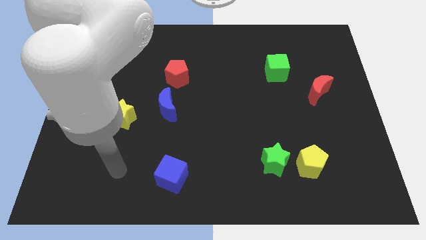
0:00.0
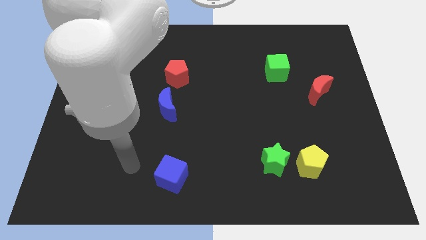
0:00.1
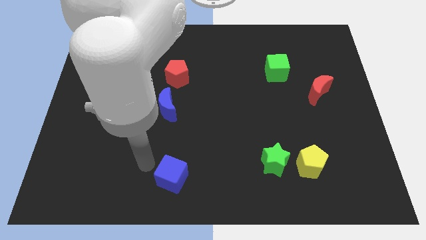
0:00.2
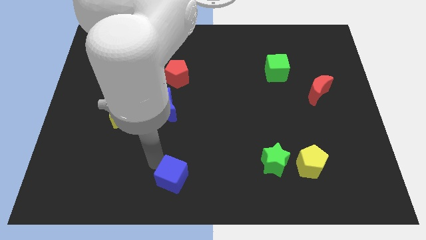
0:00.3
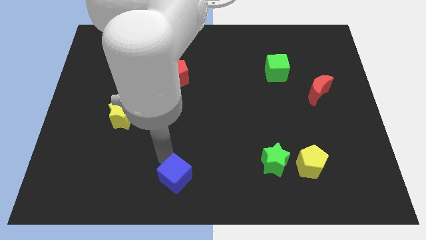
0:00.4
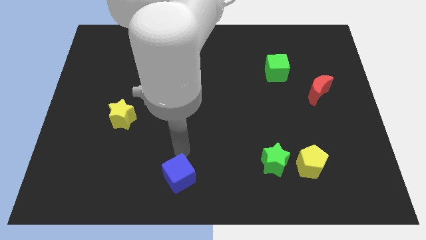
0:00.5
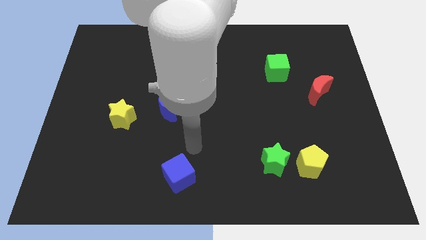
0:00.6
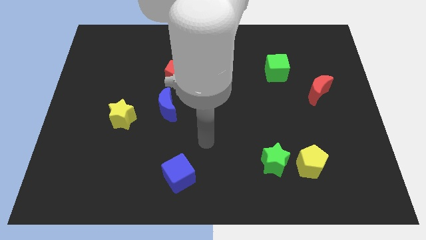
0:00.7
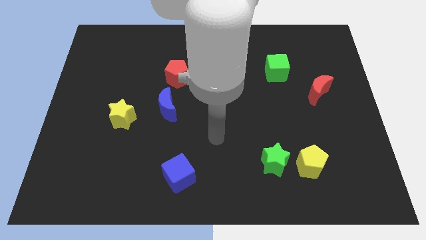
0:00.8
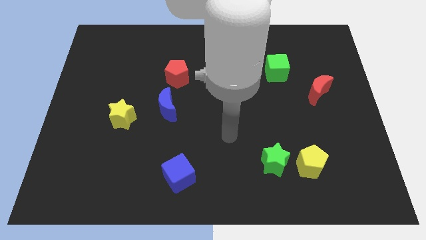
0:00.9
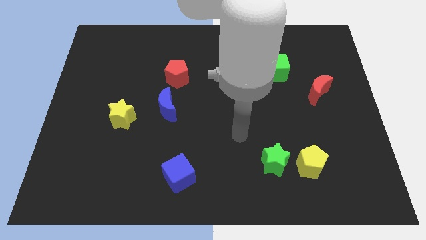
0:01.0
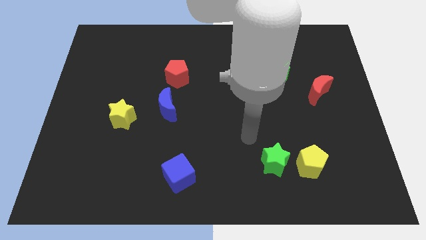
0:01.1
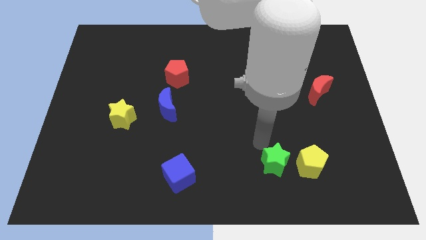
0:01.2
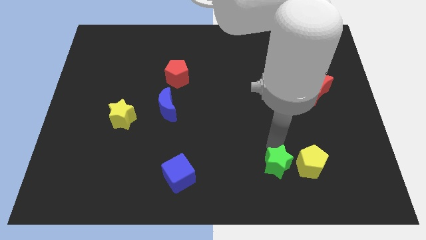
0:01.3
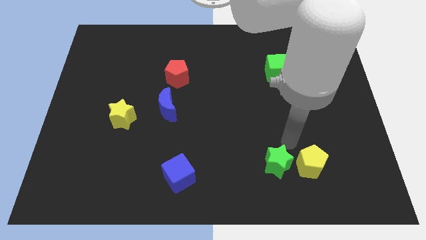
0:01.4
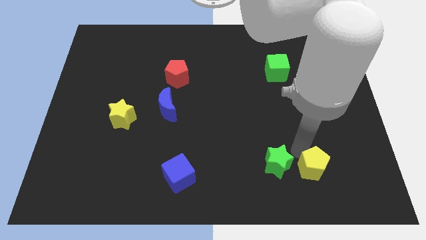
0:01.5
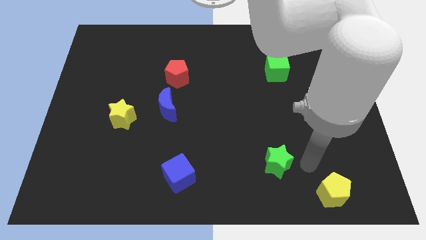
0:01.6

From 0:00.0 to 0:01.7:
move the green star away from the yellow pentagon

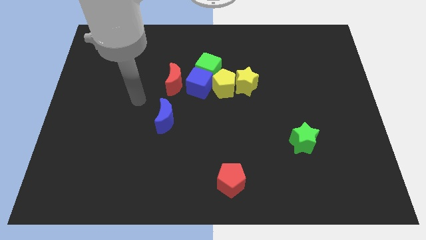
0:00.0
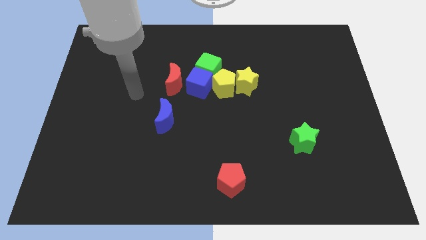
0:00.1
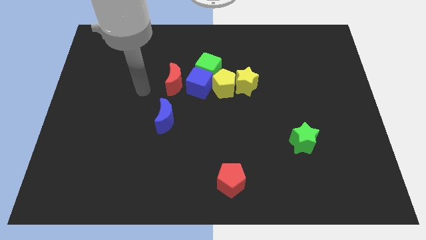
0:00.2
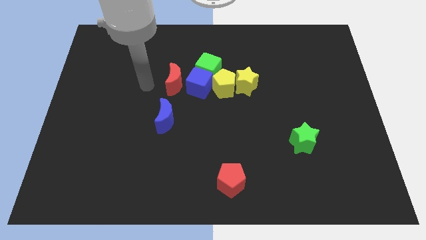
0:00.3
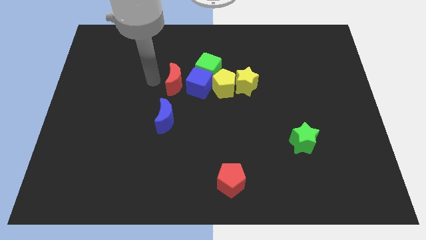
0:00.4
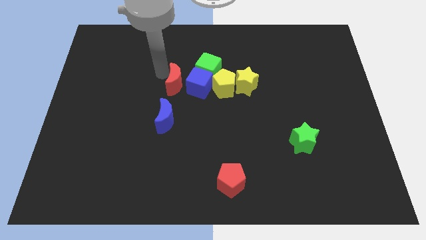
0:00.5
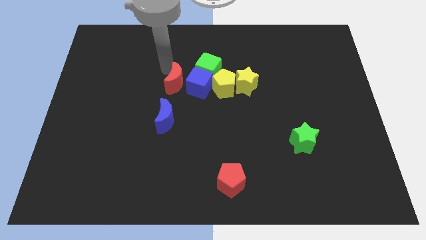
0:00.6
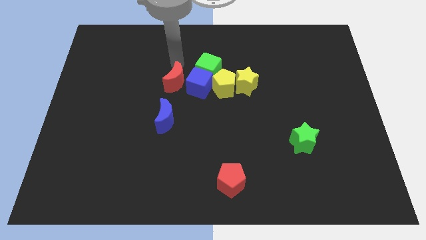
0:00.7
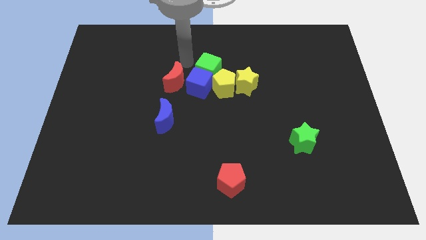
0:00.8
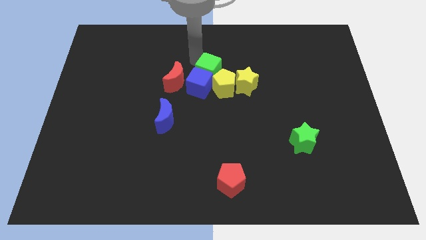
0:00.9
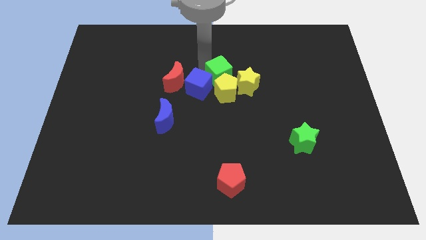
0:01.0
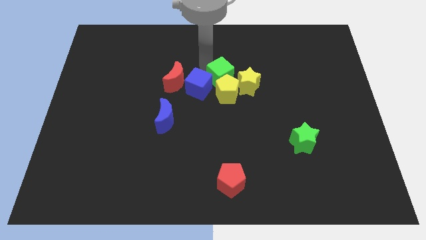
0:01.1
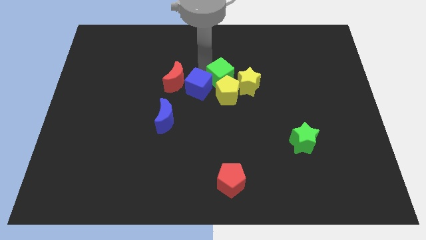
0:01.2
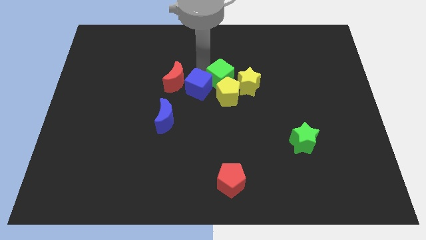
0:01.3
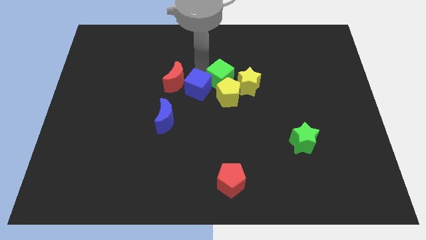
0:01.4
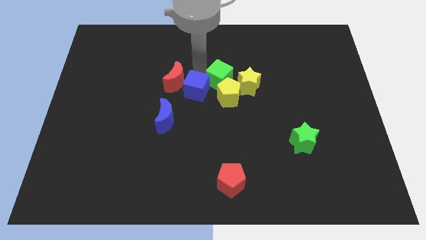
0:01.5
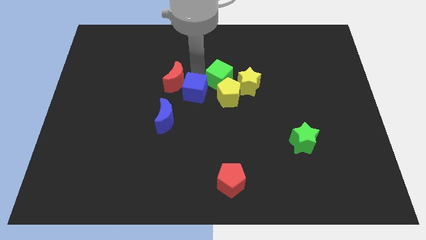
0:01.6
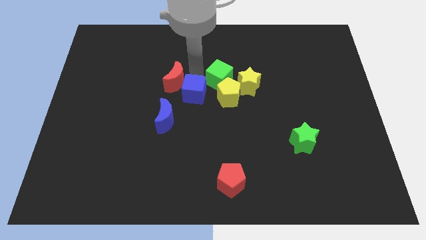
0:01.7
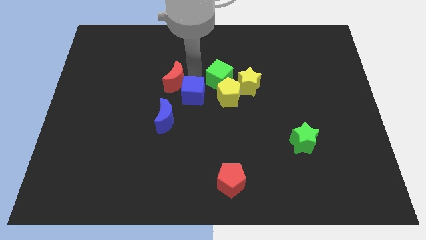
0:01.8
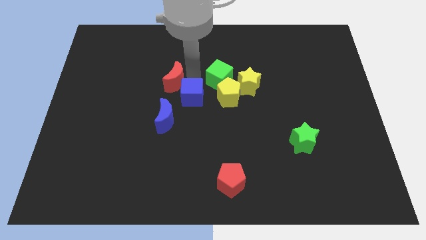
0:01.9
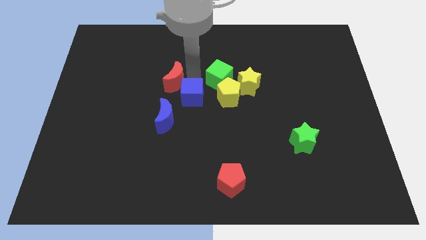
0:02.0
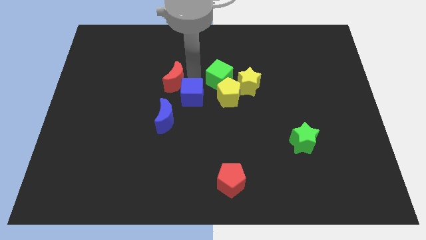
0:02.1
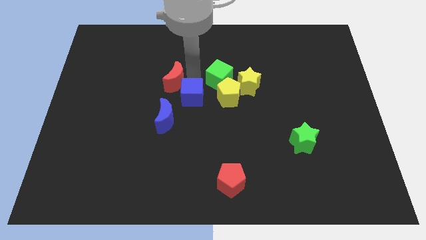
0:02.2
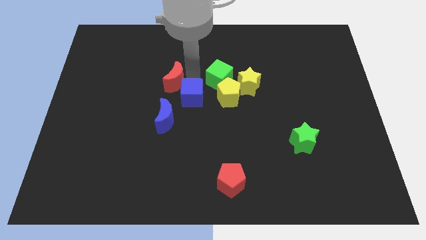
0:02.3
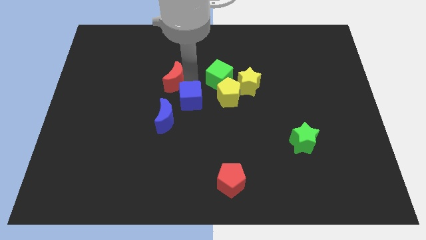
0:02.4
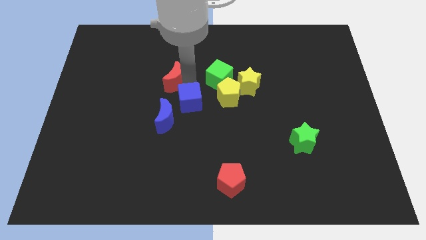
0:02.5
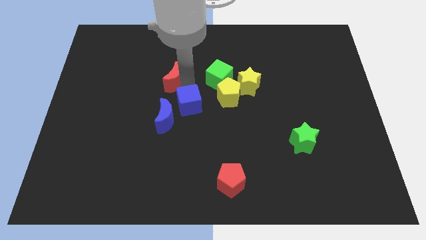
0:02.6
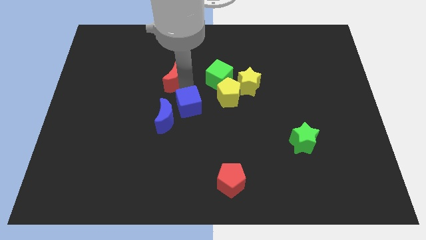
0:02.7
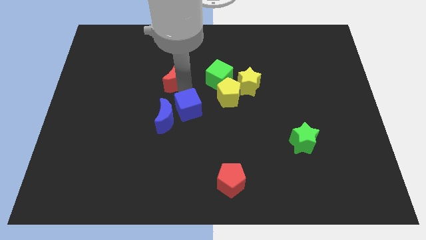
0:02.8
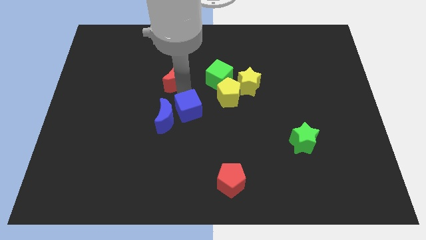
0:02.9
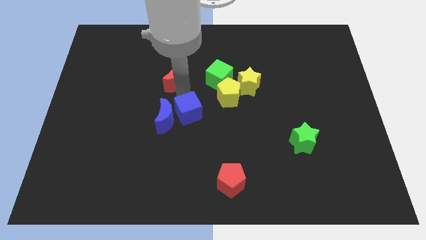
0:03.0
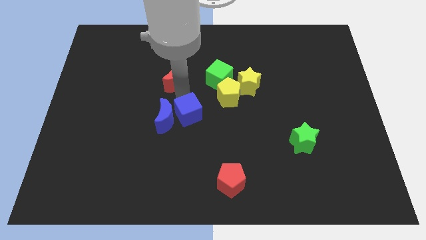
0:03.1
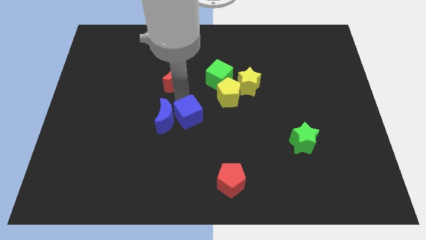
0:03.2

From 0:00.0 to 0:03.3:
move the blue cube away from the green cube, yellow pentagon, and red moon

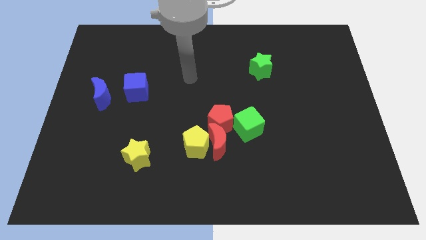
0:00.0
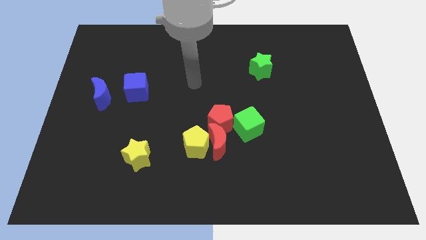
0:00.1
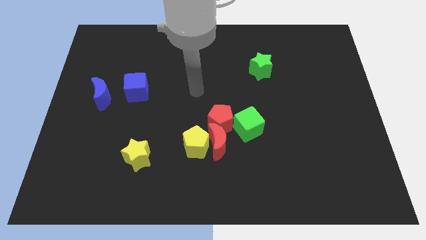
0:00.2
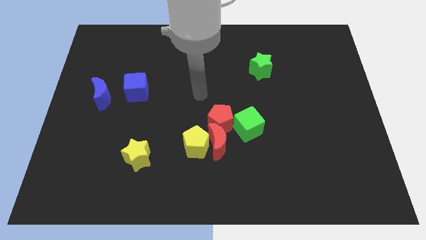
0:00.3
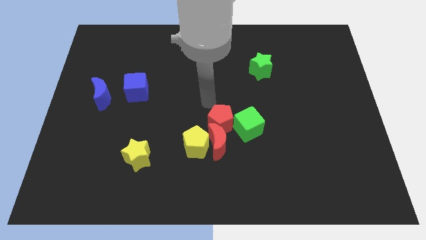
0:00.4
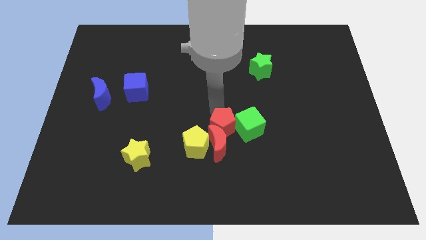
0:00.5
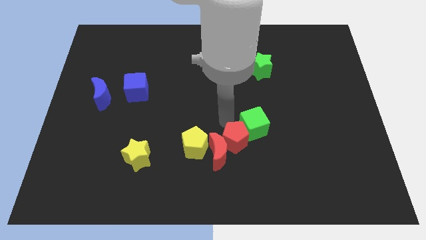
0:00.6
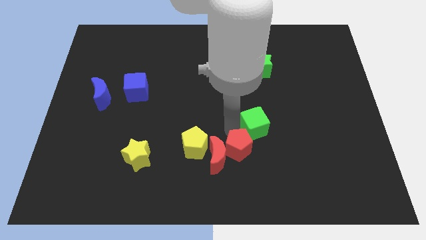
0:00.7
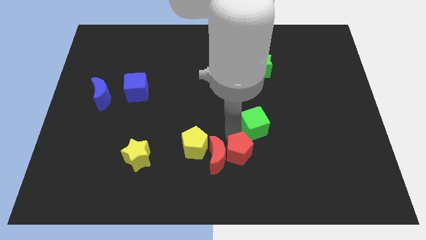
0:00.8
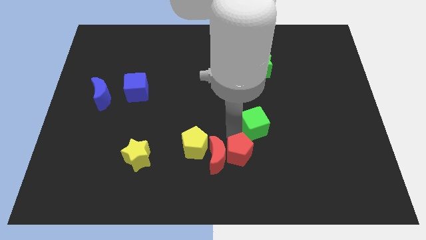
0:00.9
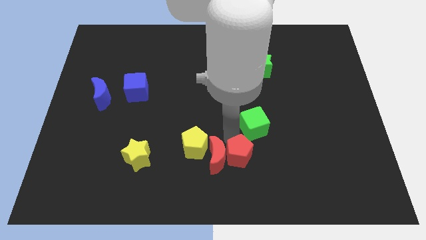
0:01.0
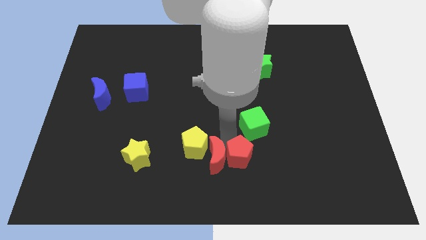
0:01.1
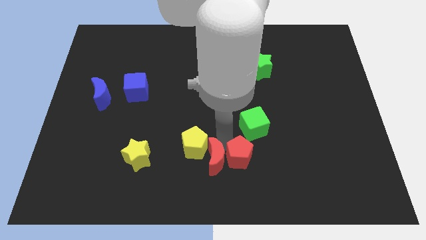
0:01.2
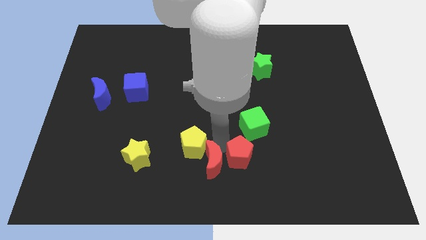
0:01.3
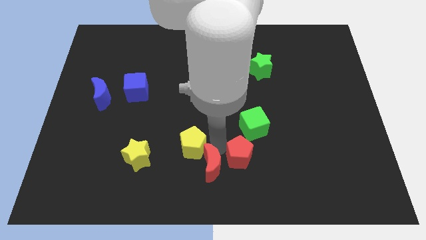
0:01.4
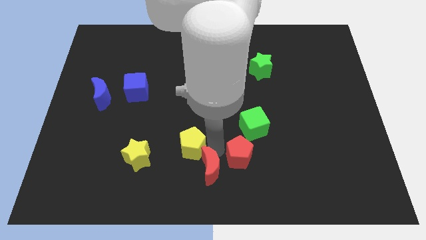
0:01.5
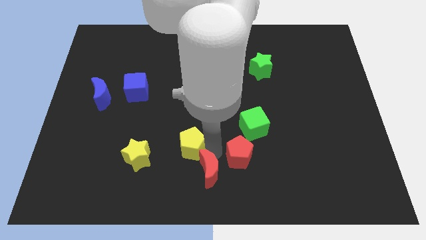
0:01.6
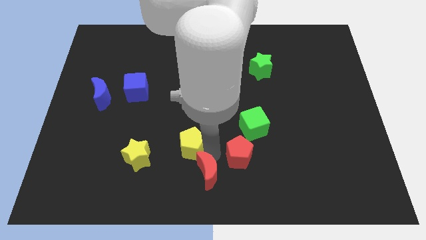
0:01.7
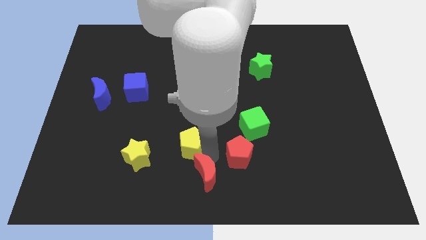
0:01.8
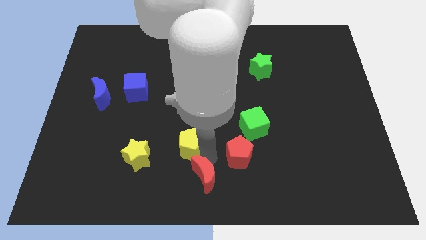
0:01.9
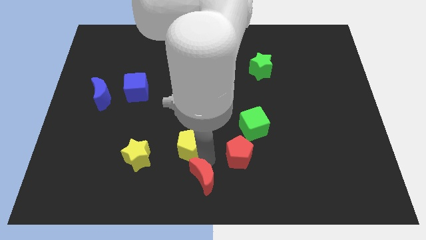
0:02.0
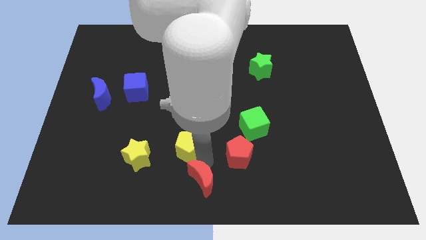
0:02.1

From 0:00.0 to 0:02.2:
separate the red moon from the yellow pentagon, red pentagon, and green cube

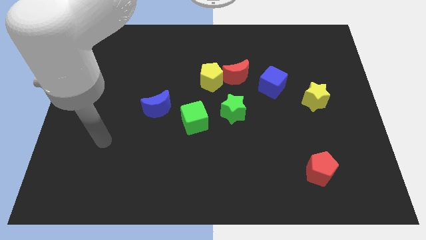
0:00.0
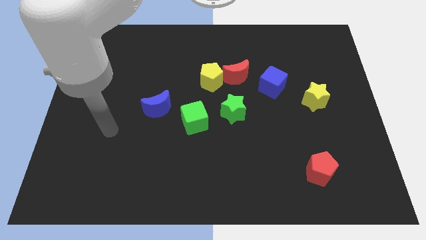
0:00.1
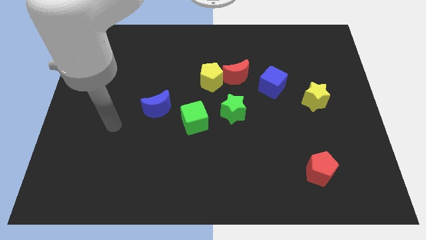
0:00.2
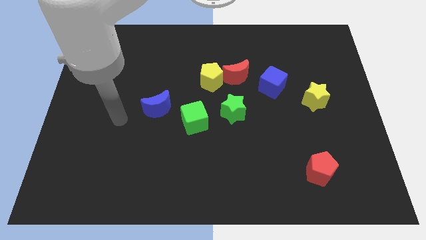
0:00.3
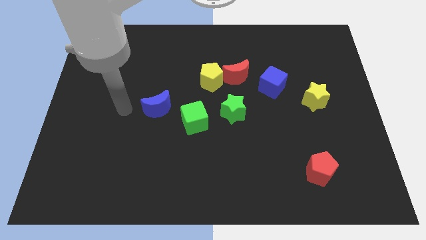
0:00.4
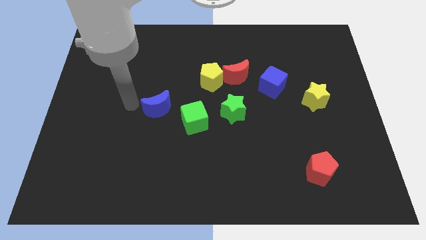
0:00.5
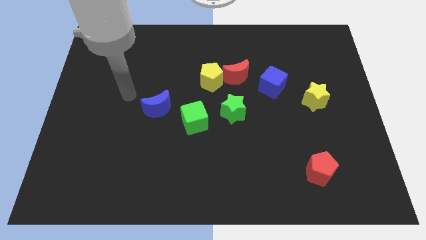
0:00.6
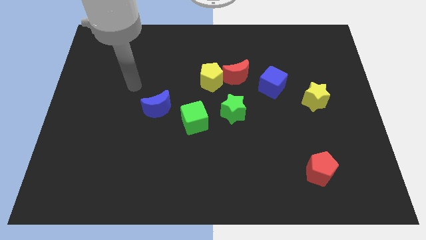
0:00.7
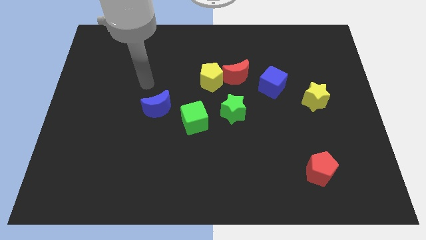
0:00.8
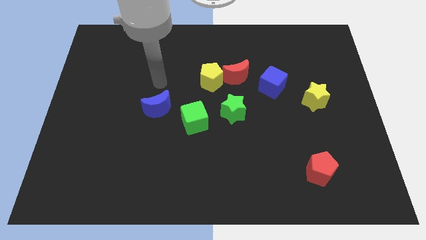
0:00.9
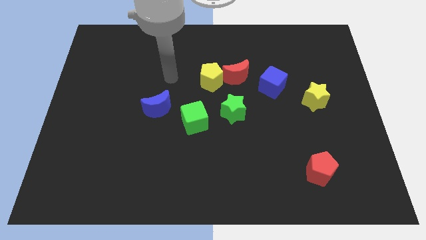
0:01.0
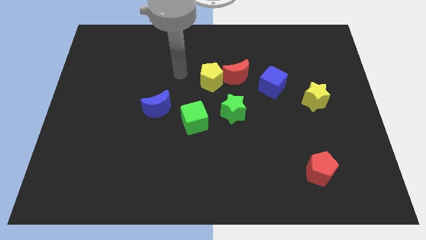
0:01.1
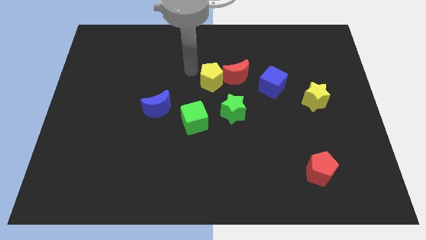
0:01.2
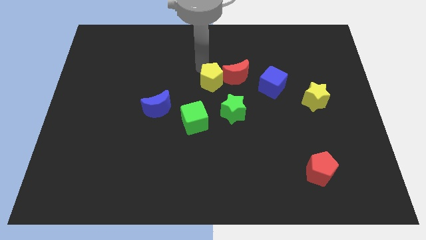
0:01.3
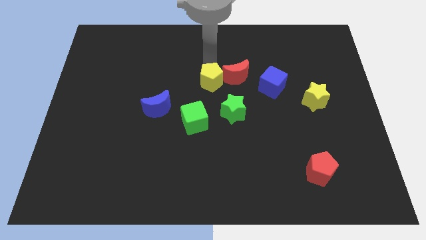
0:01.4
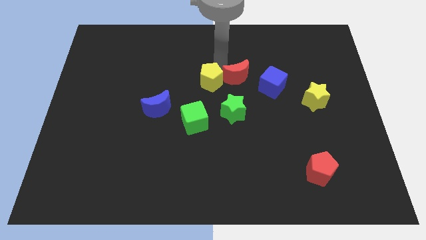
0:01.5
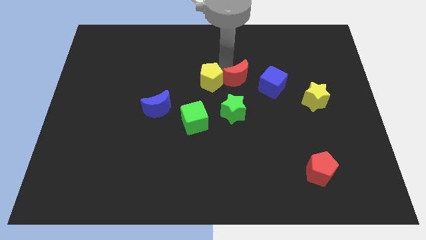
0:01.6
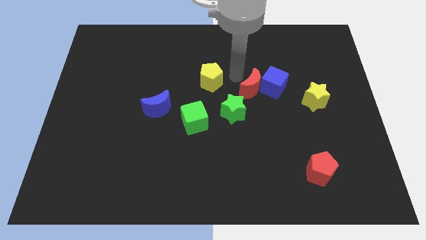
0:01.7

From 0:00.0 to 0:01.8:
pull the yellow pentagon apart from the red moon
